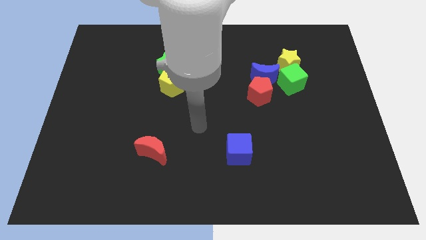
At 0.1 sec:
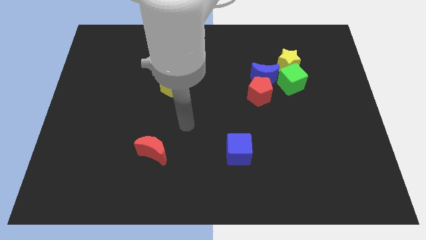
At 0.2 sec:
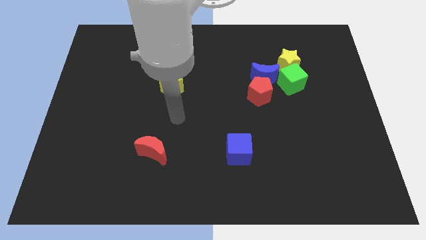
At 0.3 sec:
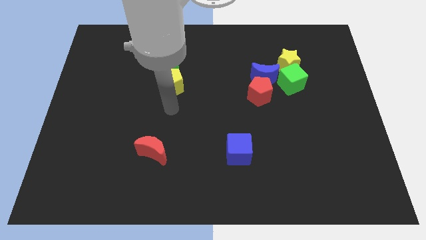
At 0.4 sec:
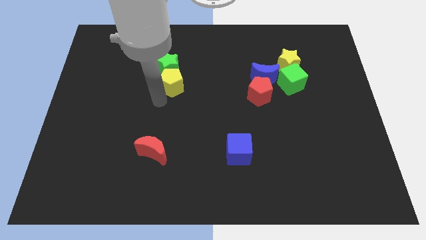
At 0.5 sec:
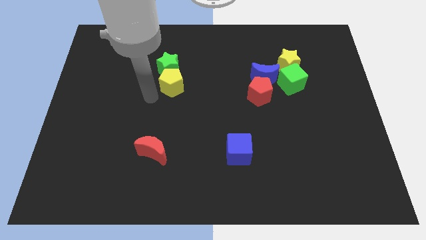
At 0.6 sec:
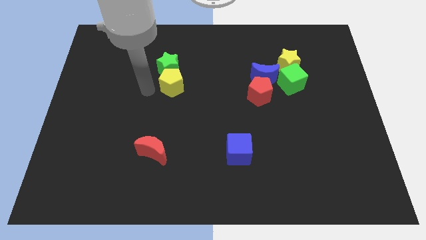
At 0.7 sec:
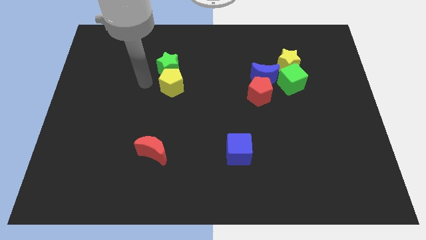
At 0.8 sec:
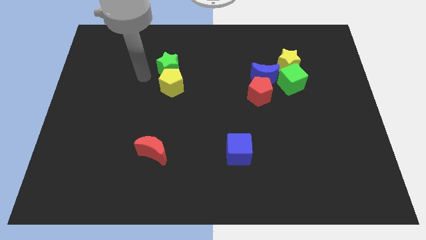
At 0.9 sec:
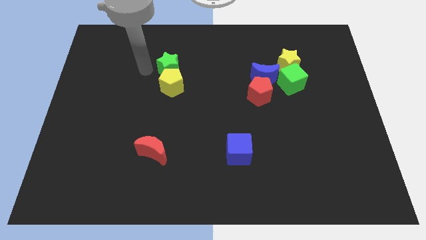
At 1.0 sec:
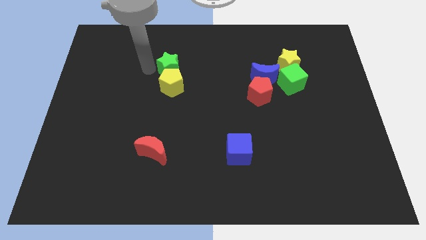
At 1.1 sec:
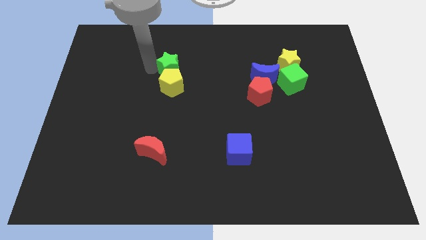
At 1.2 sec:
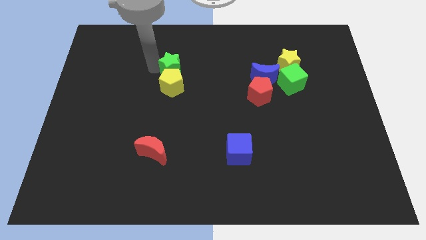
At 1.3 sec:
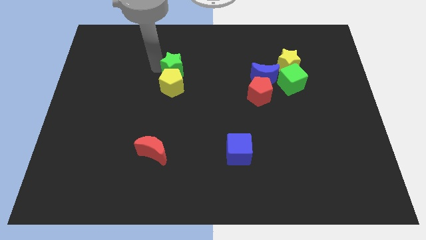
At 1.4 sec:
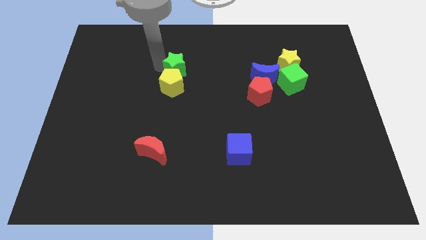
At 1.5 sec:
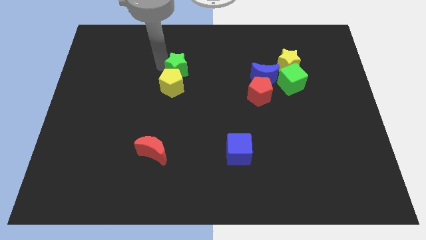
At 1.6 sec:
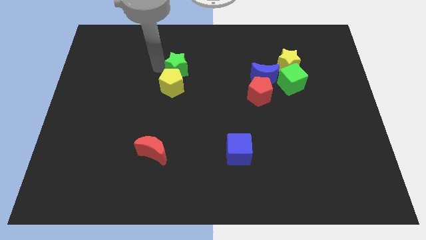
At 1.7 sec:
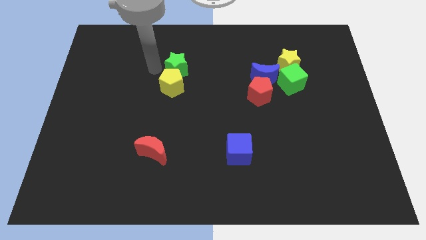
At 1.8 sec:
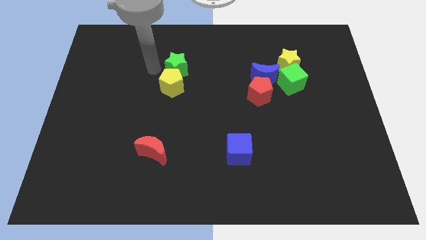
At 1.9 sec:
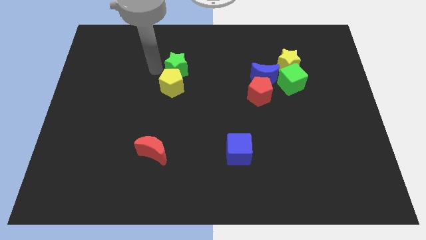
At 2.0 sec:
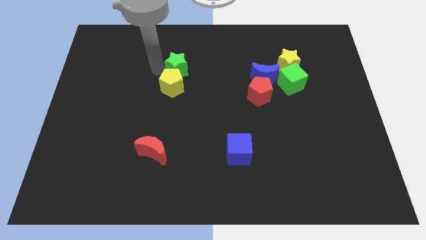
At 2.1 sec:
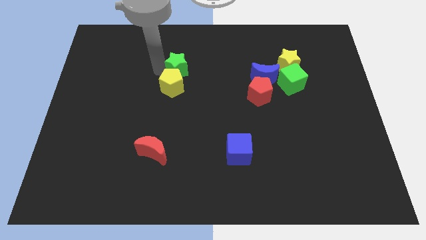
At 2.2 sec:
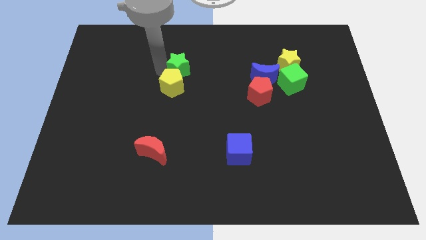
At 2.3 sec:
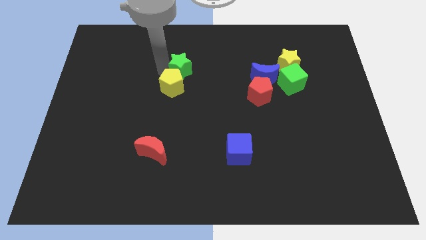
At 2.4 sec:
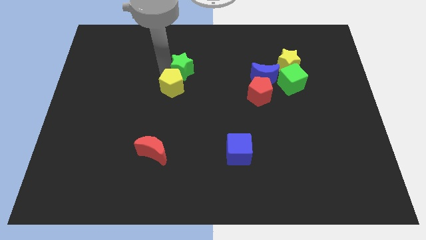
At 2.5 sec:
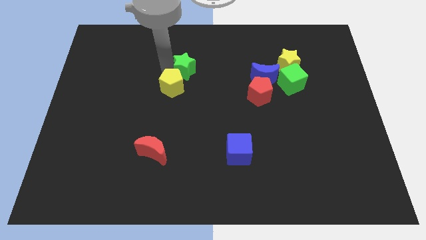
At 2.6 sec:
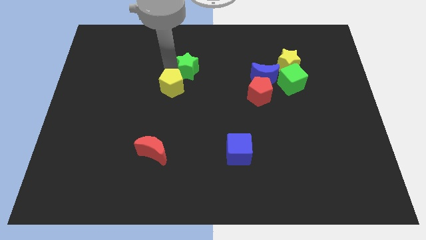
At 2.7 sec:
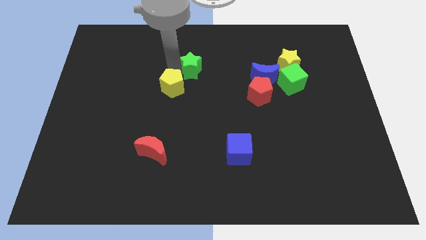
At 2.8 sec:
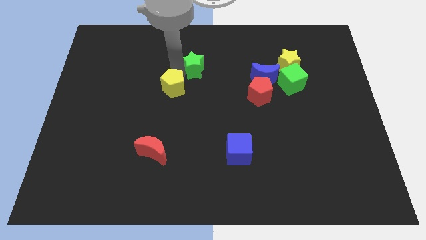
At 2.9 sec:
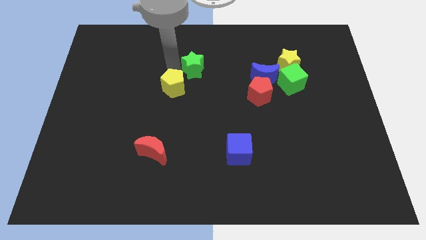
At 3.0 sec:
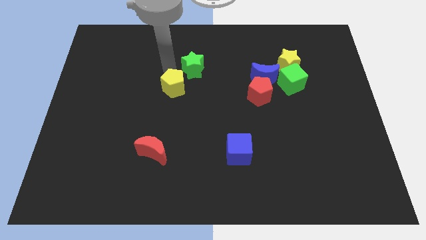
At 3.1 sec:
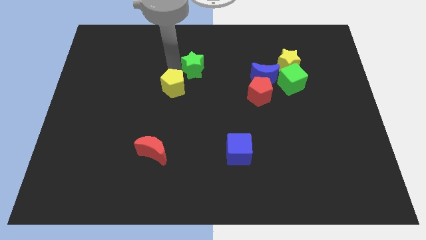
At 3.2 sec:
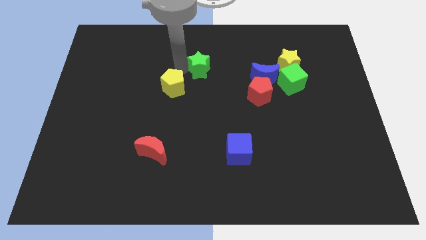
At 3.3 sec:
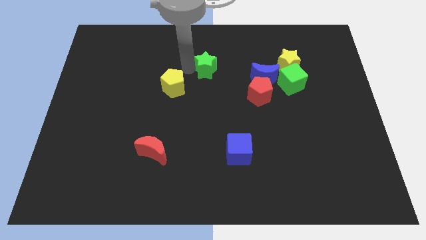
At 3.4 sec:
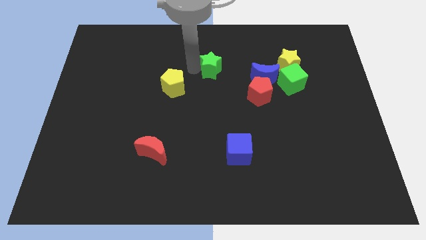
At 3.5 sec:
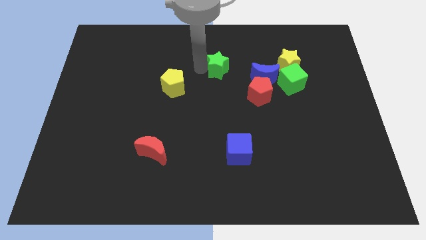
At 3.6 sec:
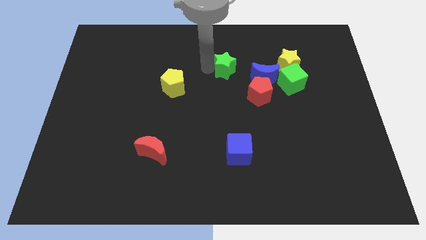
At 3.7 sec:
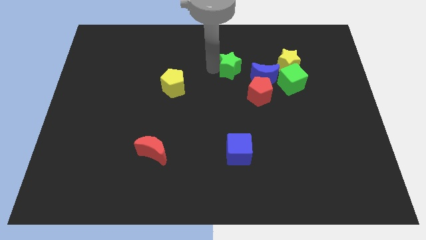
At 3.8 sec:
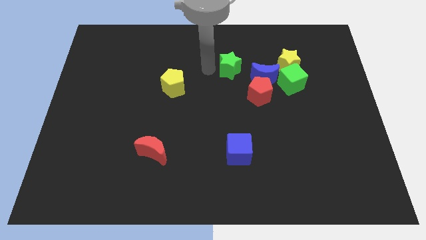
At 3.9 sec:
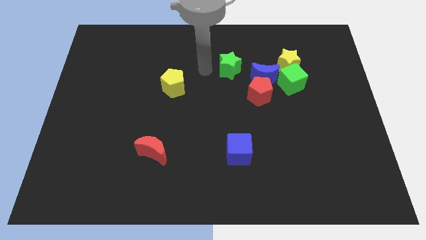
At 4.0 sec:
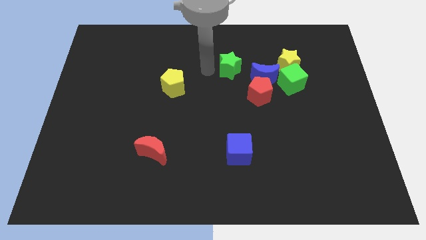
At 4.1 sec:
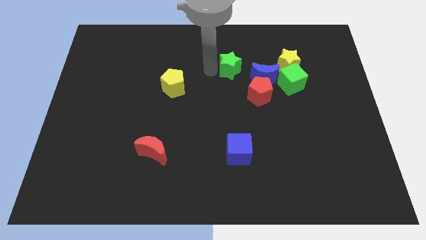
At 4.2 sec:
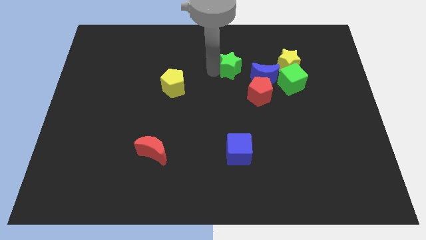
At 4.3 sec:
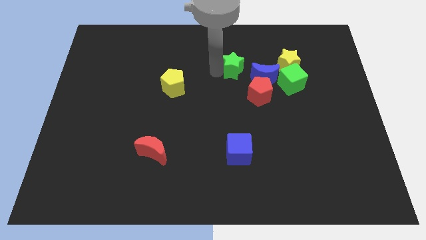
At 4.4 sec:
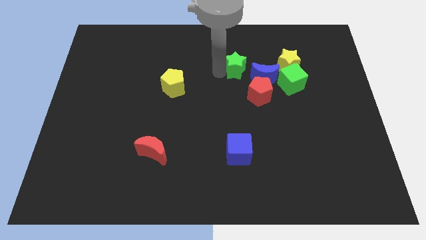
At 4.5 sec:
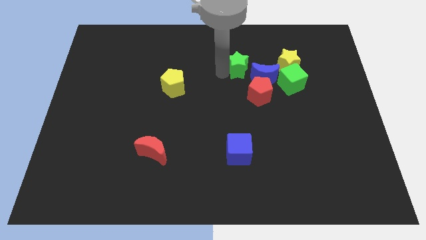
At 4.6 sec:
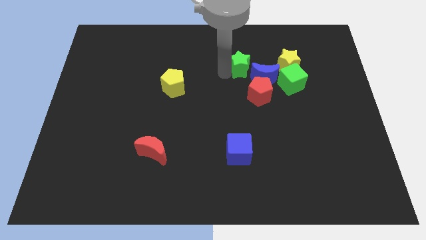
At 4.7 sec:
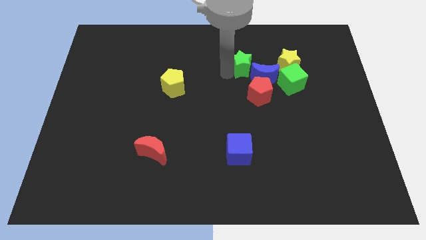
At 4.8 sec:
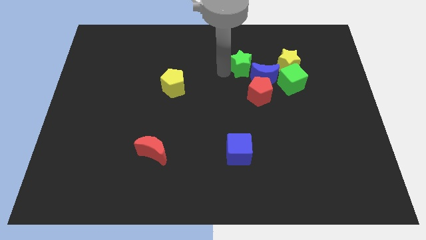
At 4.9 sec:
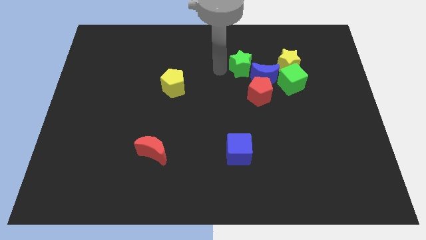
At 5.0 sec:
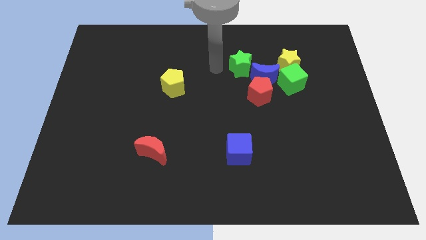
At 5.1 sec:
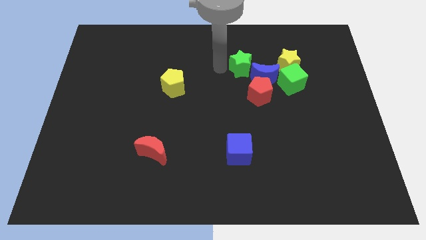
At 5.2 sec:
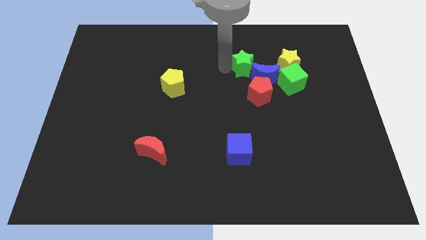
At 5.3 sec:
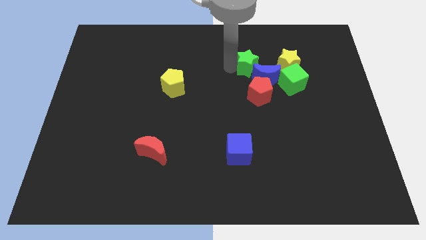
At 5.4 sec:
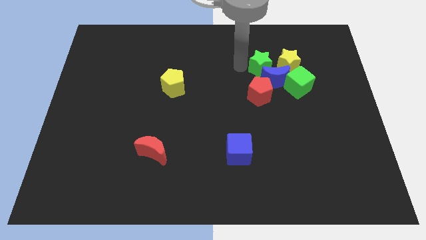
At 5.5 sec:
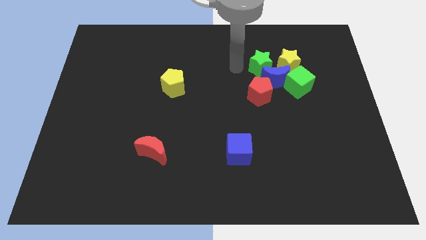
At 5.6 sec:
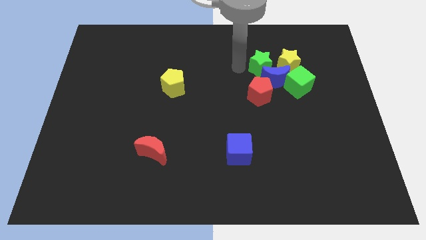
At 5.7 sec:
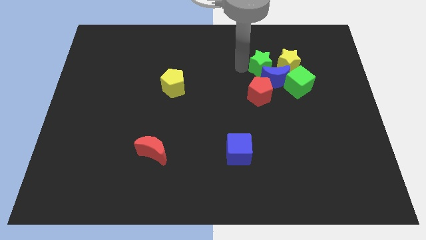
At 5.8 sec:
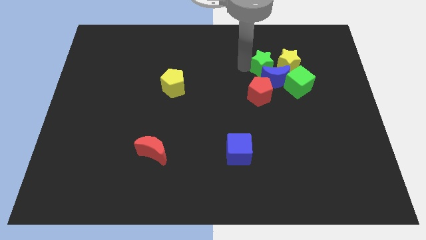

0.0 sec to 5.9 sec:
slide the green star to the yellow star

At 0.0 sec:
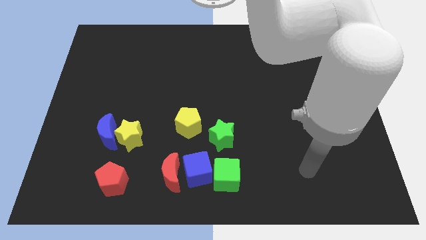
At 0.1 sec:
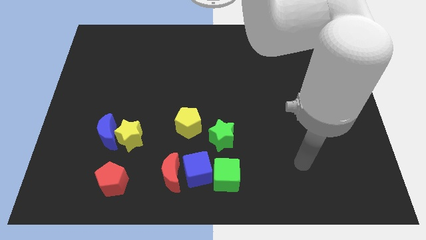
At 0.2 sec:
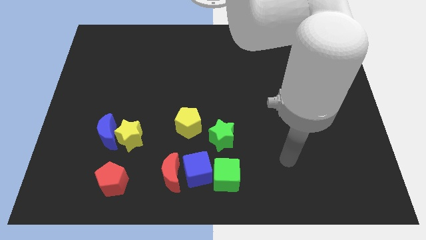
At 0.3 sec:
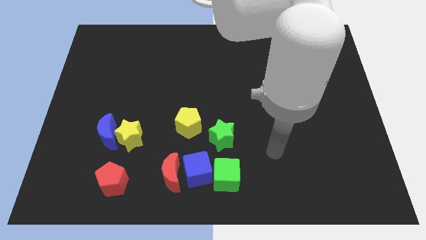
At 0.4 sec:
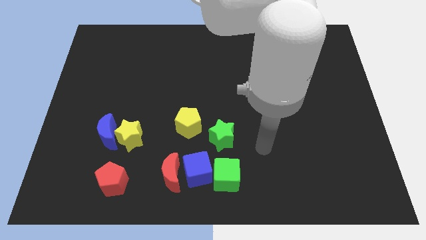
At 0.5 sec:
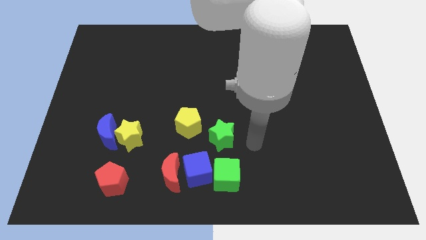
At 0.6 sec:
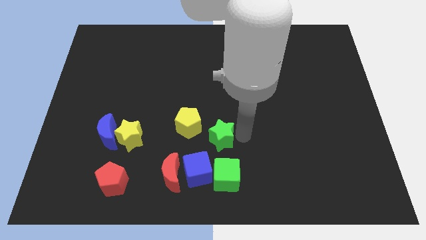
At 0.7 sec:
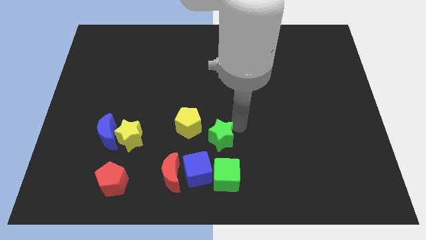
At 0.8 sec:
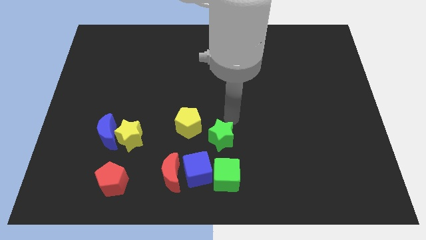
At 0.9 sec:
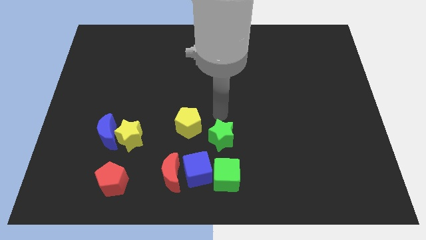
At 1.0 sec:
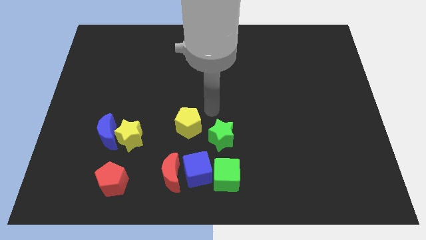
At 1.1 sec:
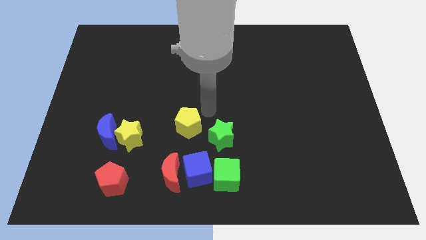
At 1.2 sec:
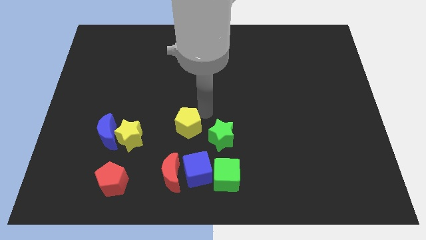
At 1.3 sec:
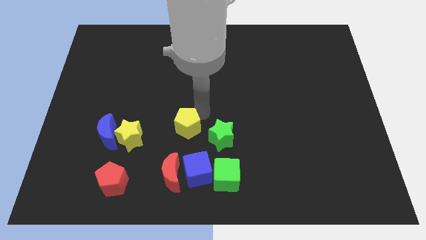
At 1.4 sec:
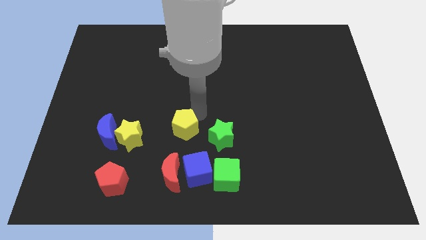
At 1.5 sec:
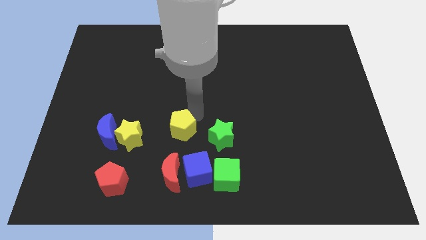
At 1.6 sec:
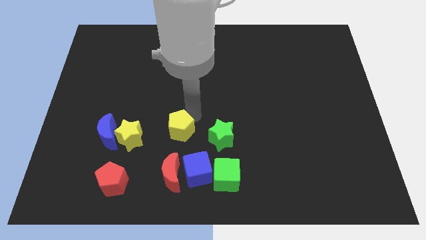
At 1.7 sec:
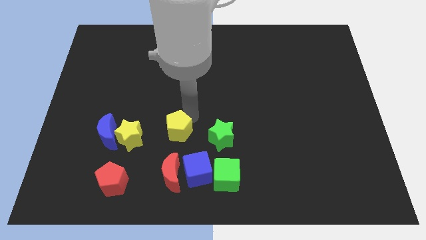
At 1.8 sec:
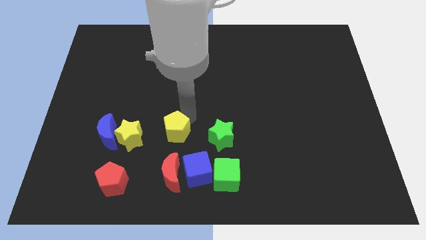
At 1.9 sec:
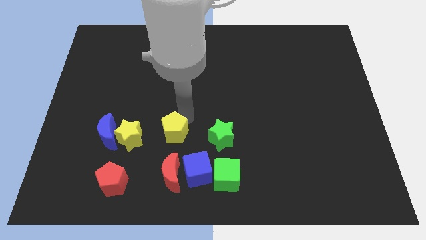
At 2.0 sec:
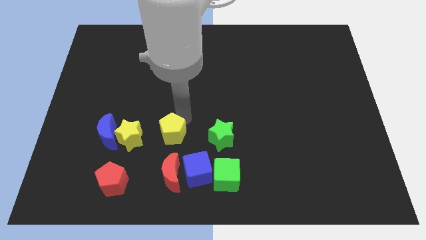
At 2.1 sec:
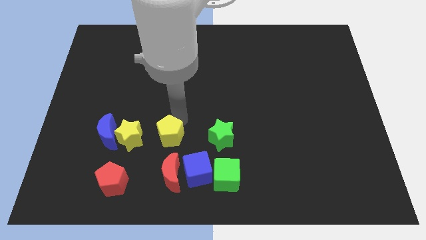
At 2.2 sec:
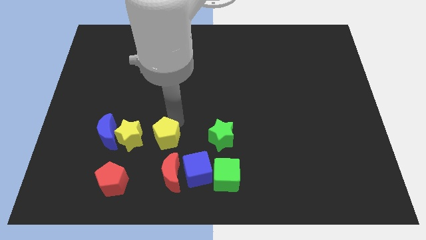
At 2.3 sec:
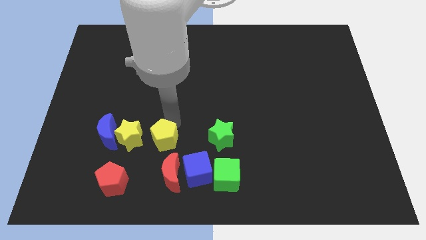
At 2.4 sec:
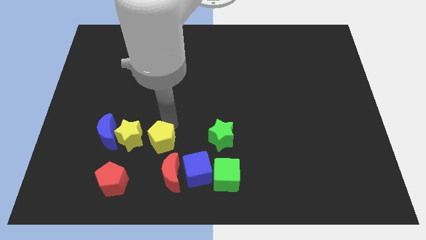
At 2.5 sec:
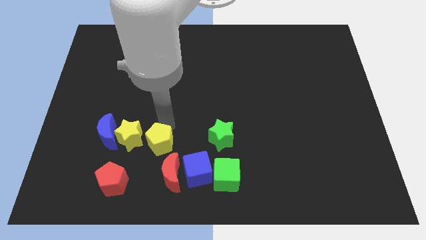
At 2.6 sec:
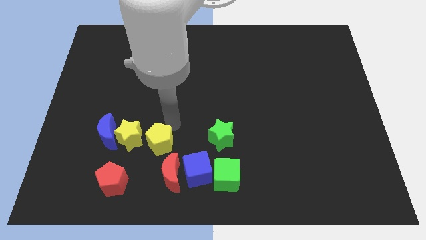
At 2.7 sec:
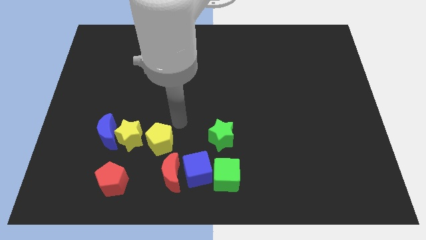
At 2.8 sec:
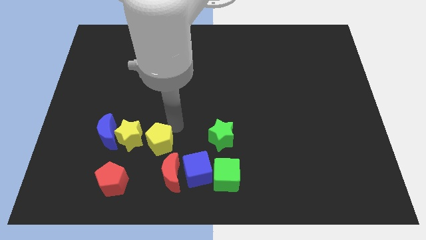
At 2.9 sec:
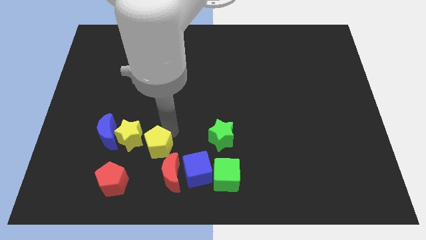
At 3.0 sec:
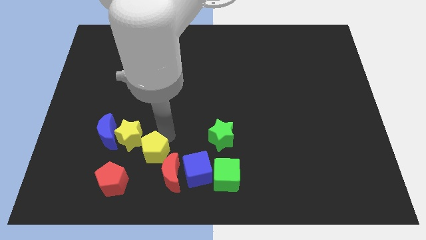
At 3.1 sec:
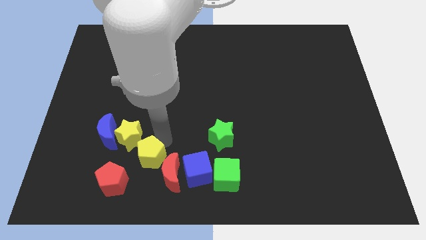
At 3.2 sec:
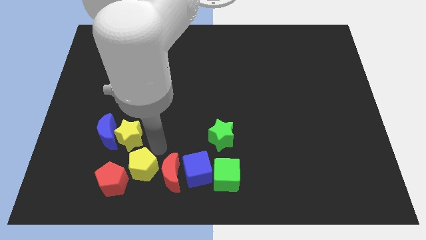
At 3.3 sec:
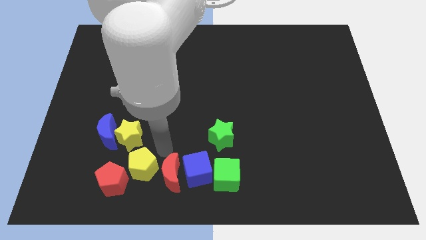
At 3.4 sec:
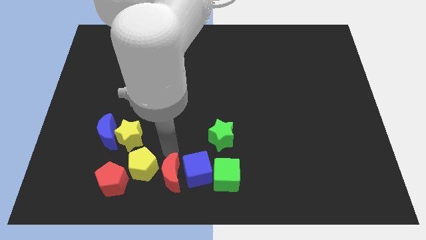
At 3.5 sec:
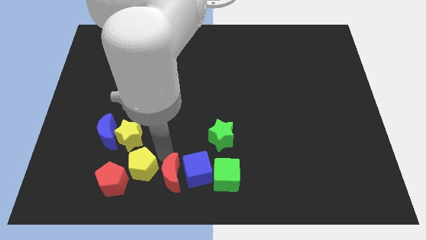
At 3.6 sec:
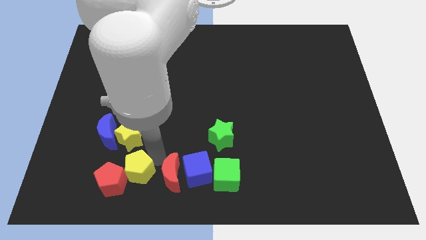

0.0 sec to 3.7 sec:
move the yellow pentagon close to the red pentagon
